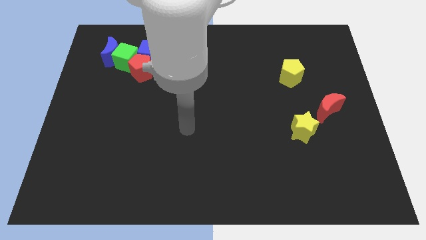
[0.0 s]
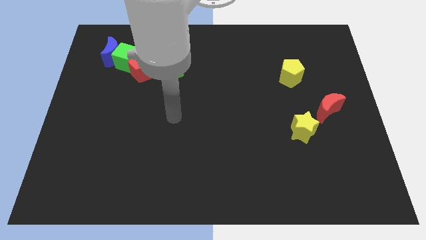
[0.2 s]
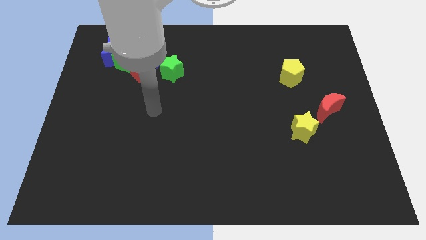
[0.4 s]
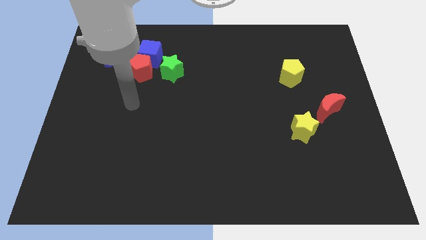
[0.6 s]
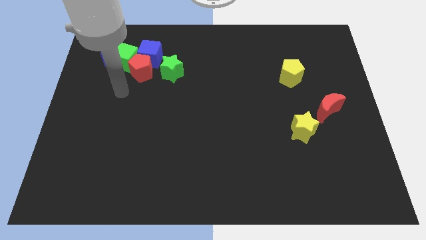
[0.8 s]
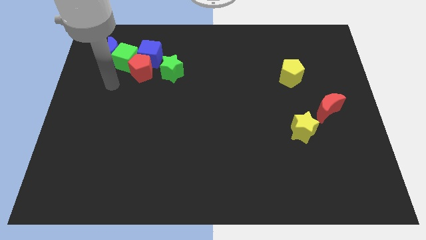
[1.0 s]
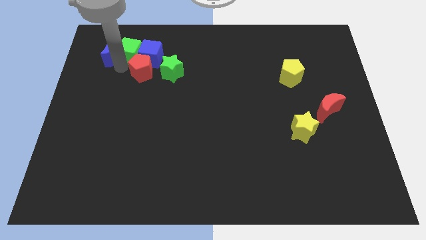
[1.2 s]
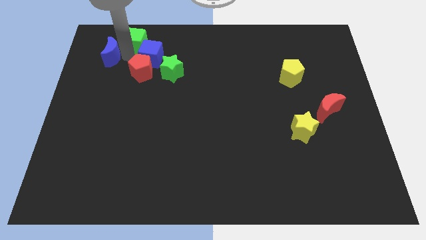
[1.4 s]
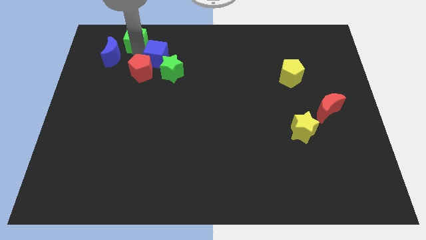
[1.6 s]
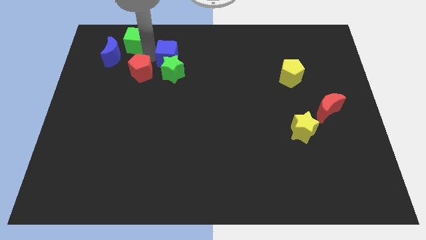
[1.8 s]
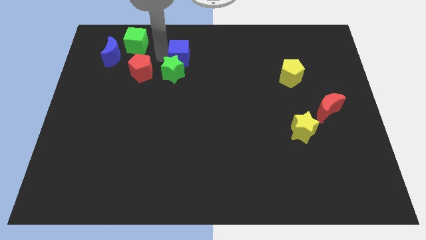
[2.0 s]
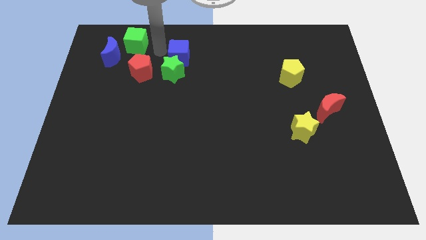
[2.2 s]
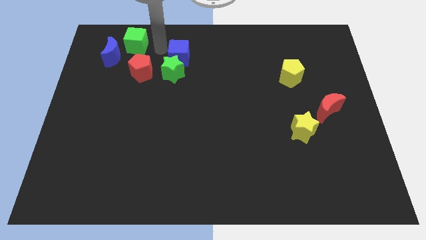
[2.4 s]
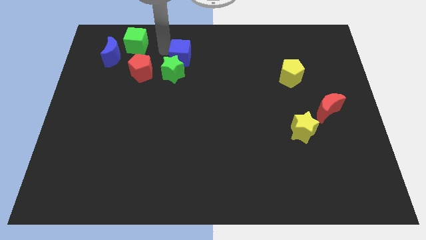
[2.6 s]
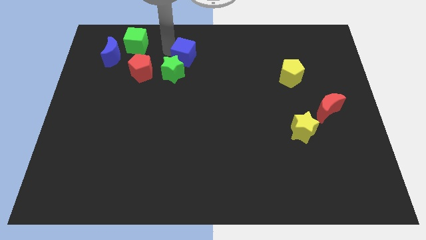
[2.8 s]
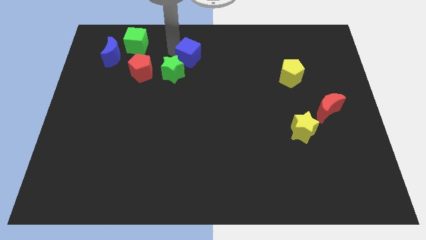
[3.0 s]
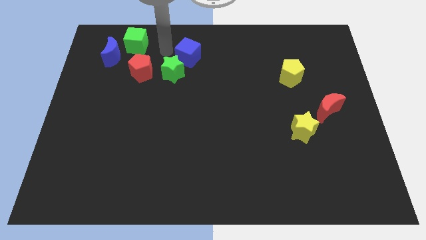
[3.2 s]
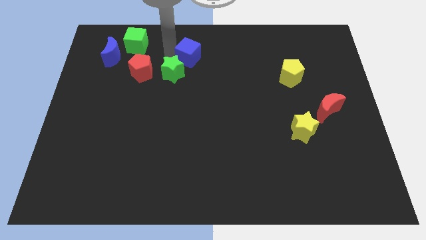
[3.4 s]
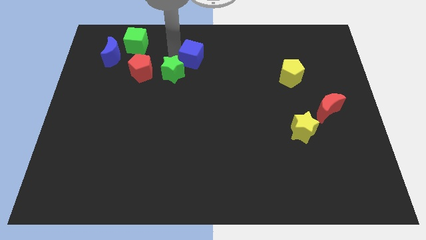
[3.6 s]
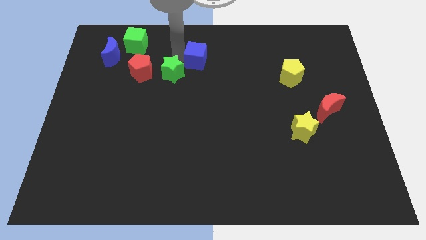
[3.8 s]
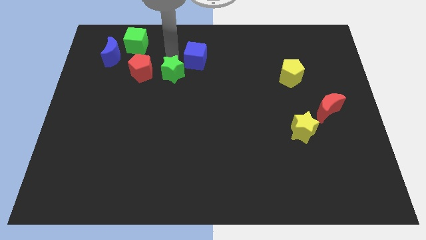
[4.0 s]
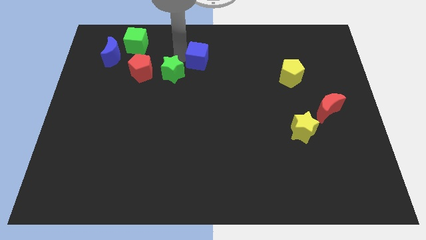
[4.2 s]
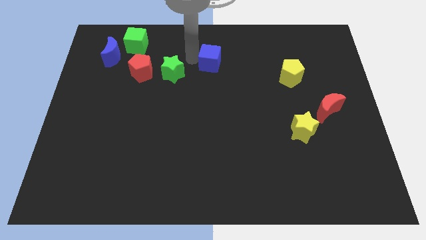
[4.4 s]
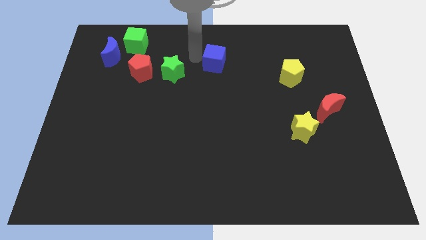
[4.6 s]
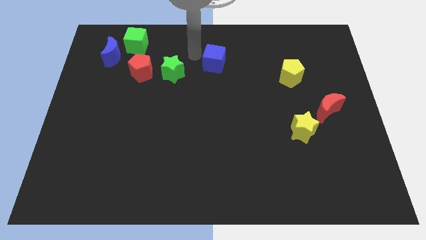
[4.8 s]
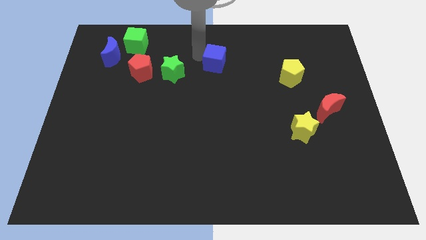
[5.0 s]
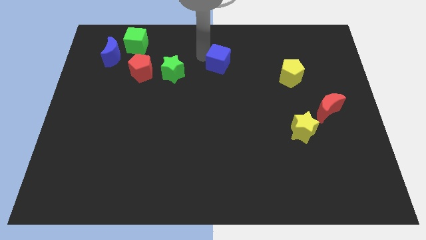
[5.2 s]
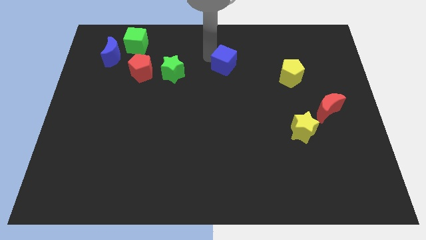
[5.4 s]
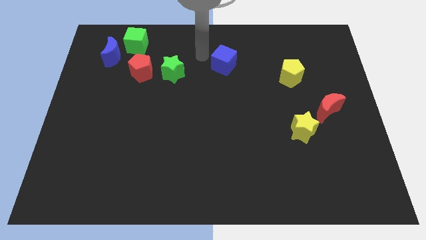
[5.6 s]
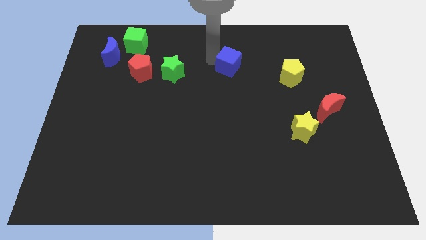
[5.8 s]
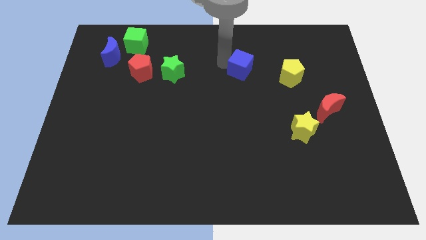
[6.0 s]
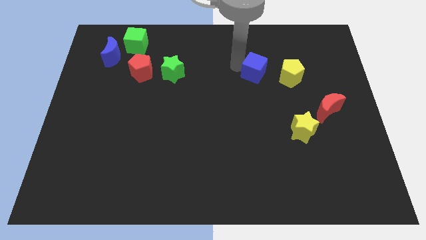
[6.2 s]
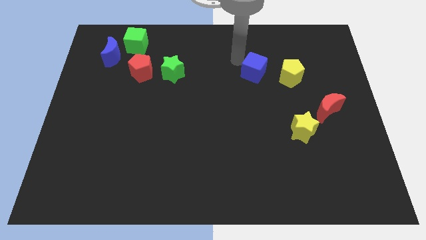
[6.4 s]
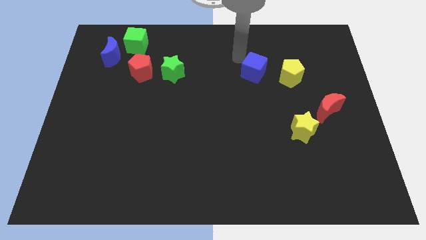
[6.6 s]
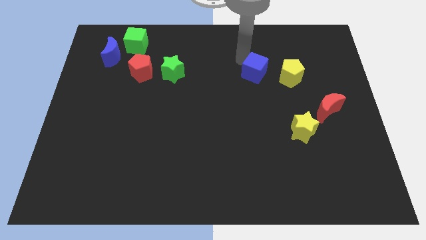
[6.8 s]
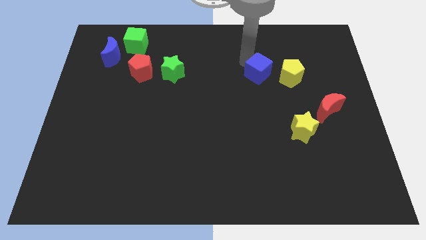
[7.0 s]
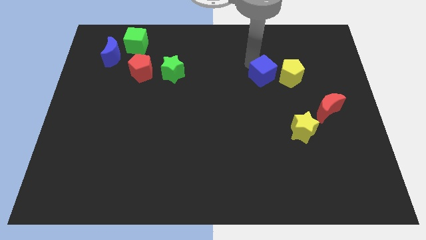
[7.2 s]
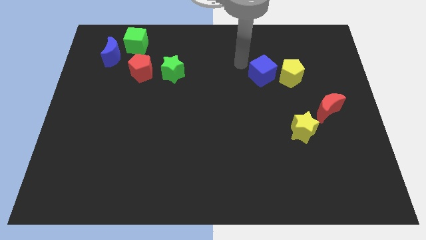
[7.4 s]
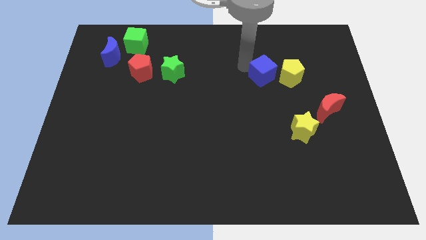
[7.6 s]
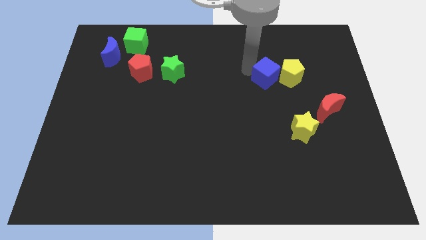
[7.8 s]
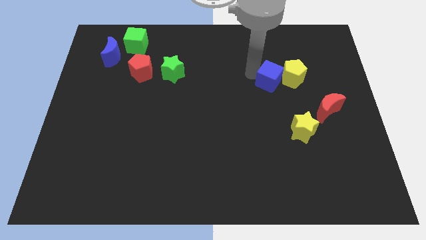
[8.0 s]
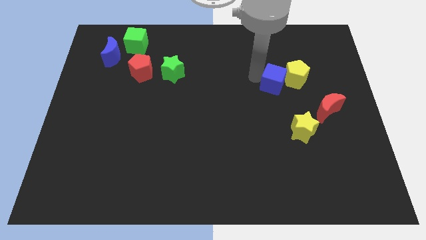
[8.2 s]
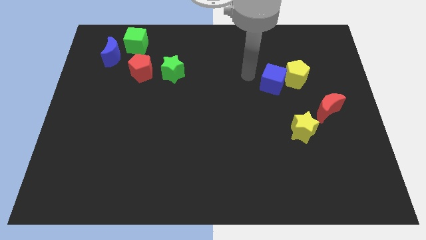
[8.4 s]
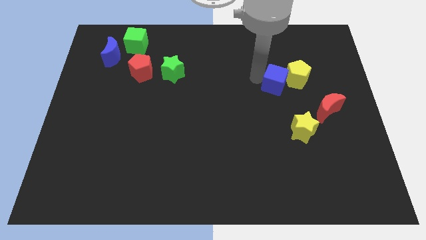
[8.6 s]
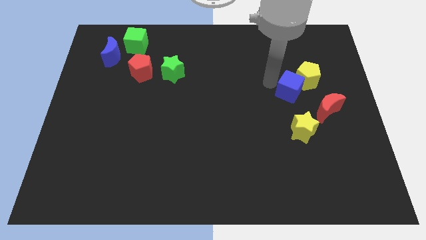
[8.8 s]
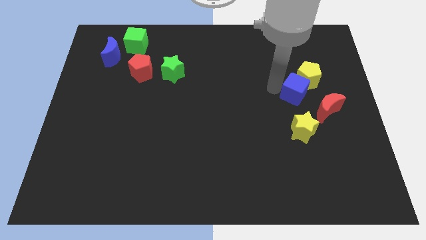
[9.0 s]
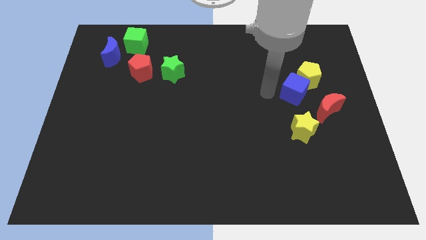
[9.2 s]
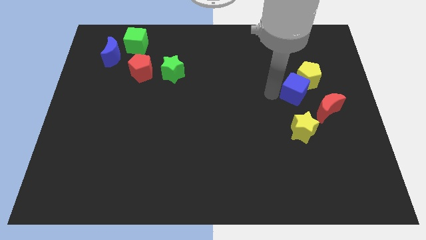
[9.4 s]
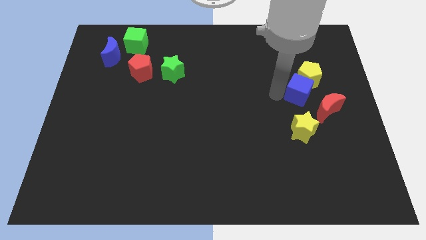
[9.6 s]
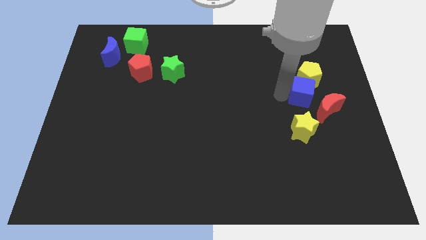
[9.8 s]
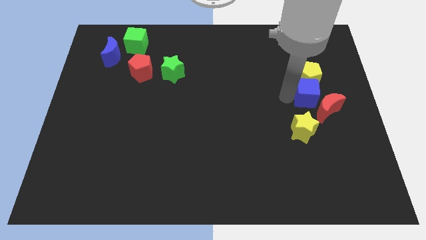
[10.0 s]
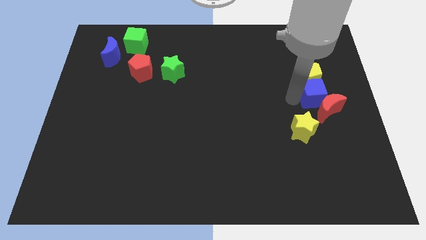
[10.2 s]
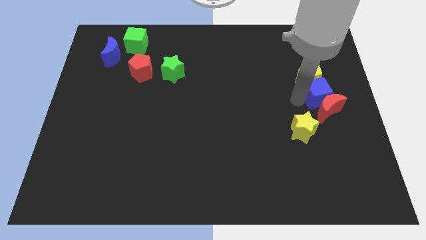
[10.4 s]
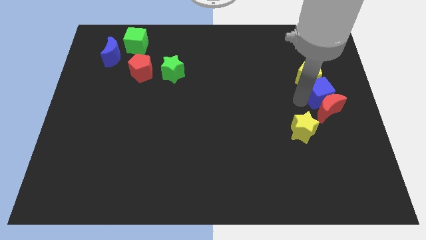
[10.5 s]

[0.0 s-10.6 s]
move the blue cube to the right side of the board
